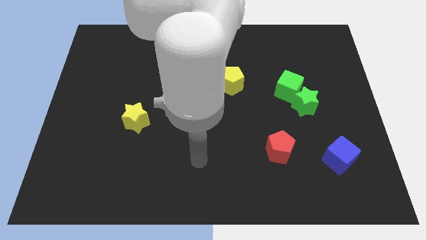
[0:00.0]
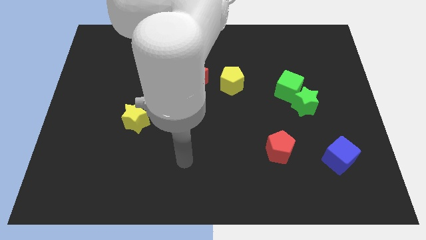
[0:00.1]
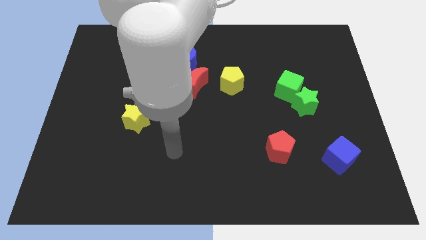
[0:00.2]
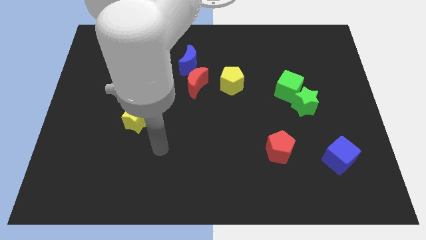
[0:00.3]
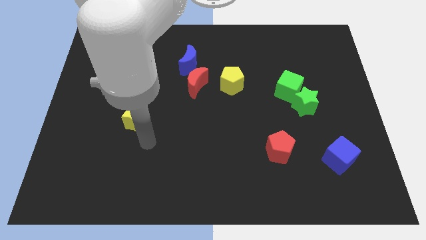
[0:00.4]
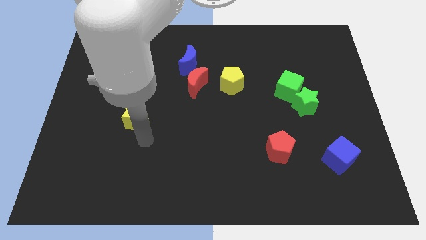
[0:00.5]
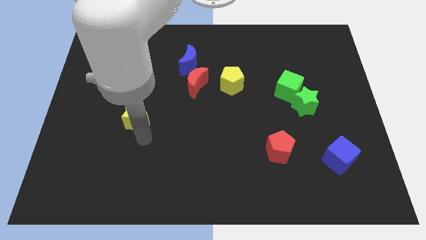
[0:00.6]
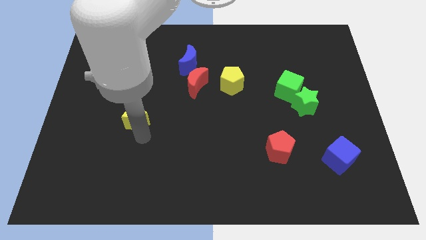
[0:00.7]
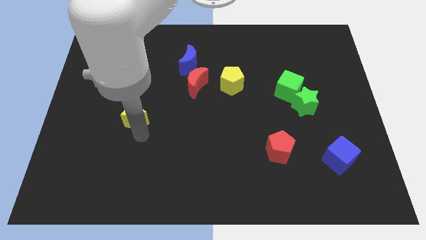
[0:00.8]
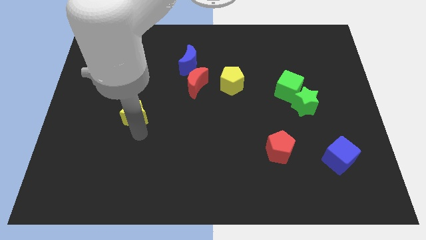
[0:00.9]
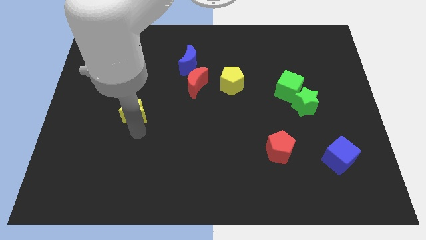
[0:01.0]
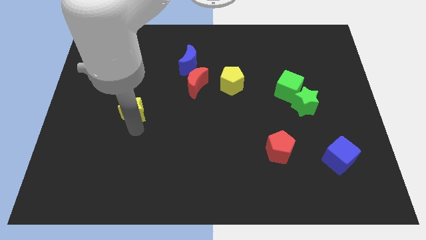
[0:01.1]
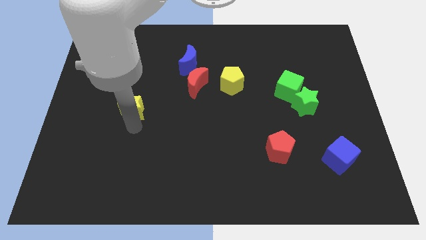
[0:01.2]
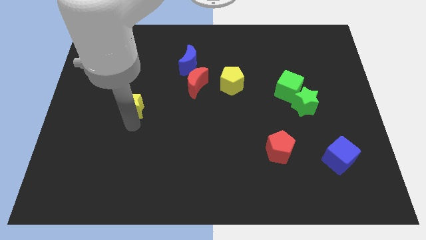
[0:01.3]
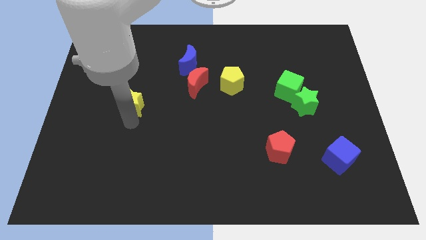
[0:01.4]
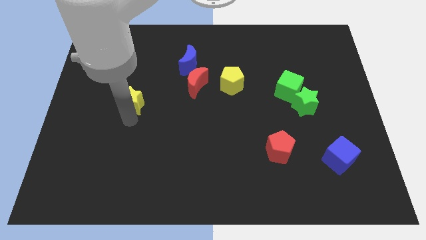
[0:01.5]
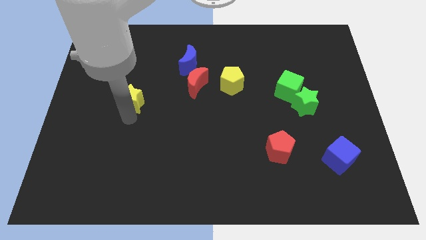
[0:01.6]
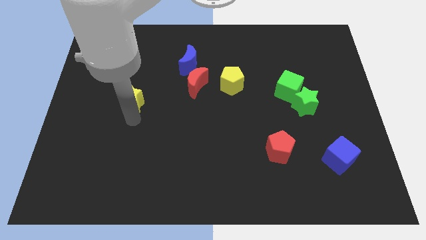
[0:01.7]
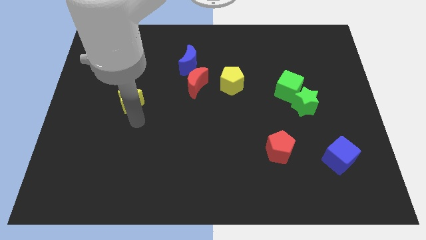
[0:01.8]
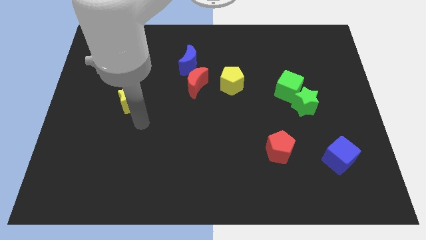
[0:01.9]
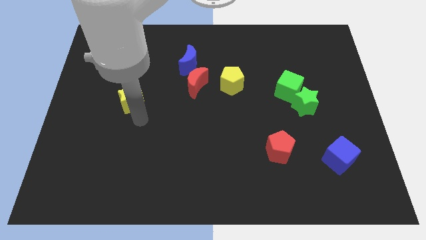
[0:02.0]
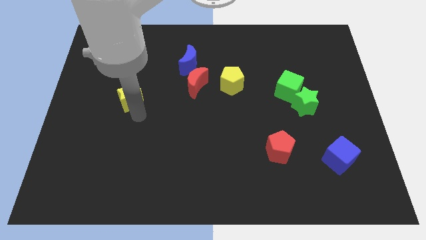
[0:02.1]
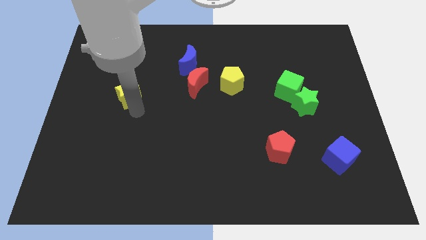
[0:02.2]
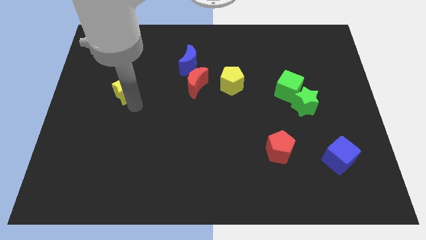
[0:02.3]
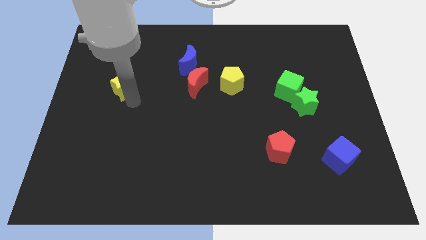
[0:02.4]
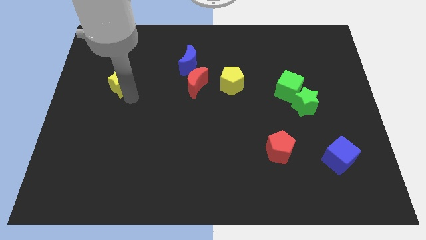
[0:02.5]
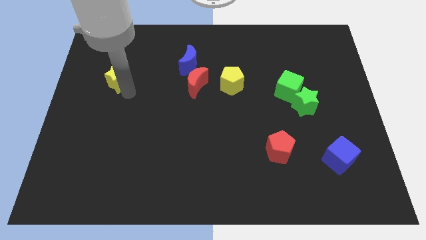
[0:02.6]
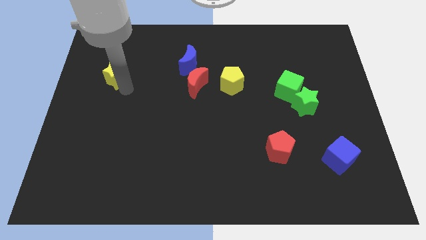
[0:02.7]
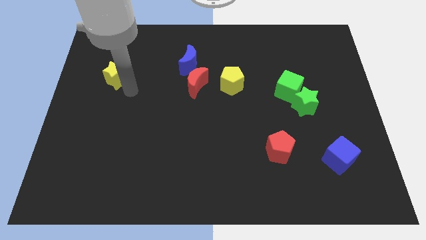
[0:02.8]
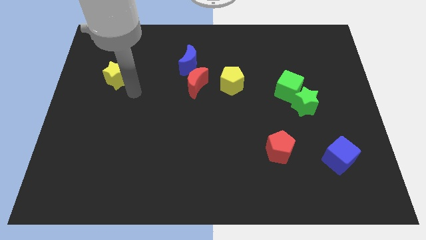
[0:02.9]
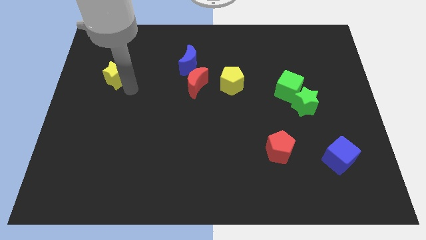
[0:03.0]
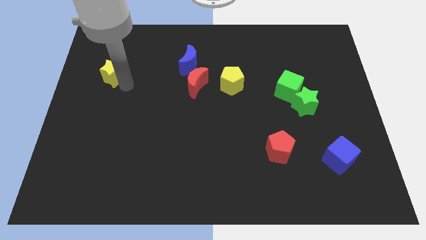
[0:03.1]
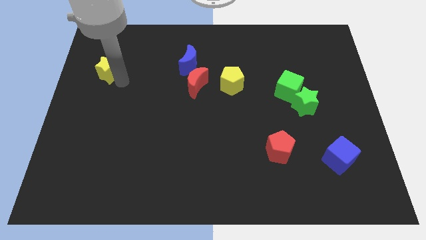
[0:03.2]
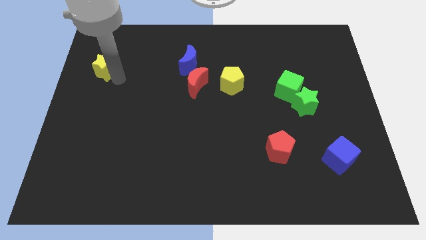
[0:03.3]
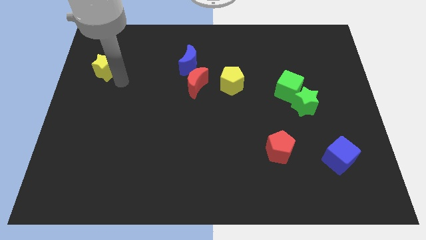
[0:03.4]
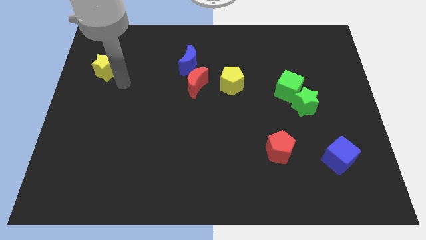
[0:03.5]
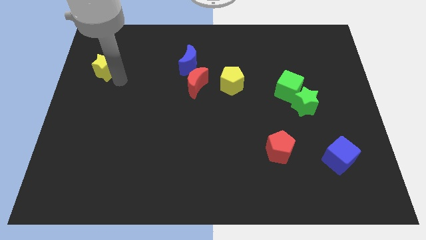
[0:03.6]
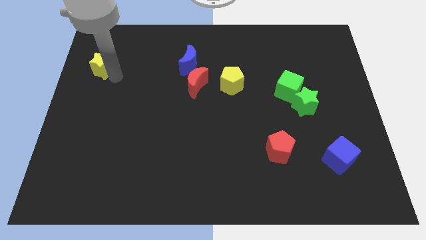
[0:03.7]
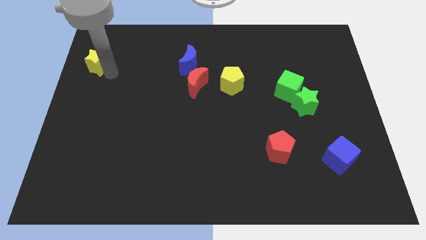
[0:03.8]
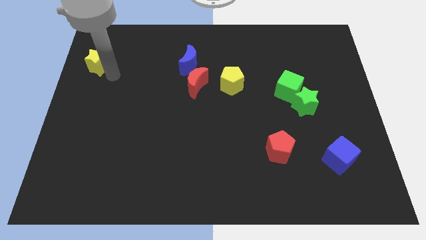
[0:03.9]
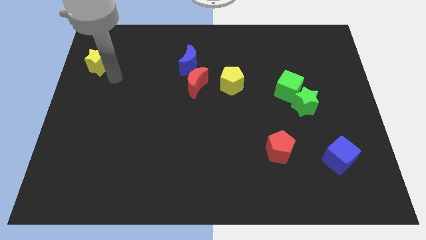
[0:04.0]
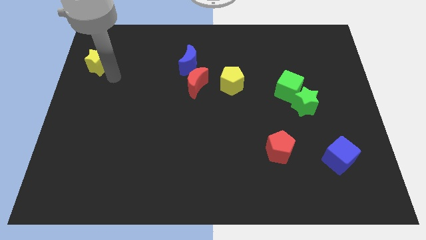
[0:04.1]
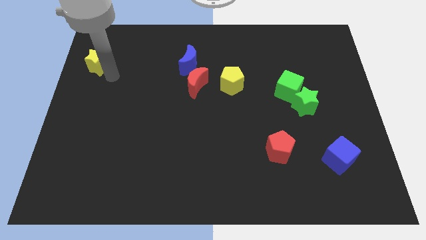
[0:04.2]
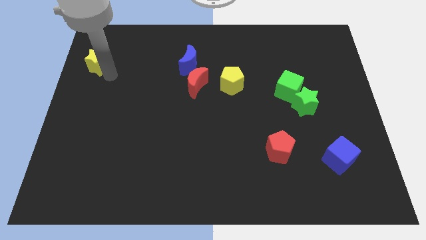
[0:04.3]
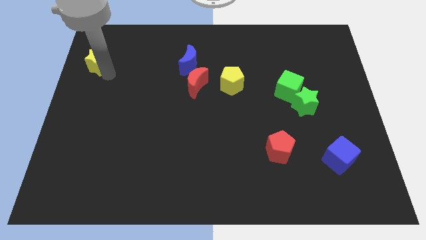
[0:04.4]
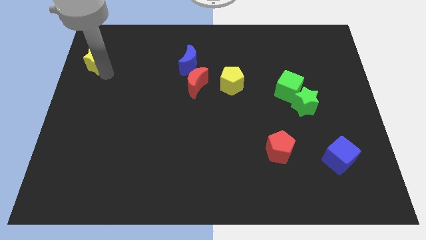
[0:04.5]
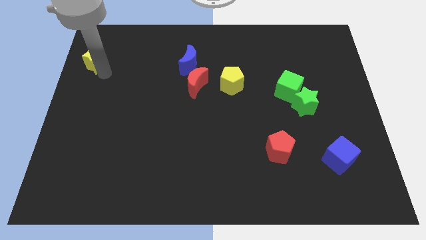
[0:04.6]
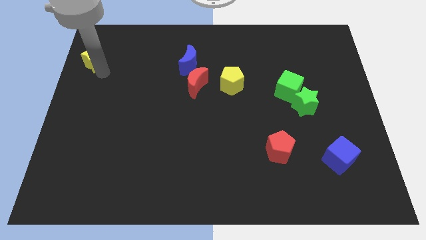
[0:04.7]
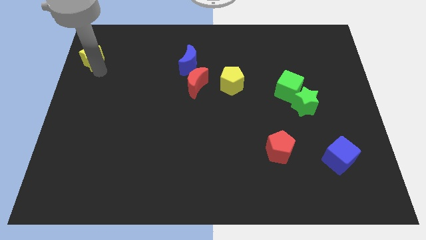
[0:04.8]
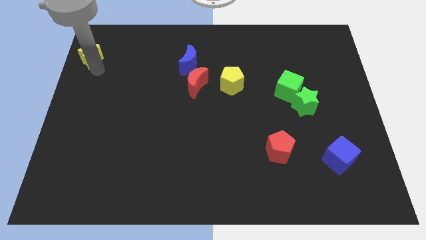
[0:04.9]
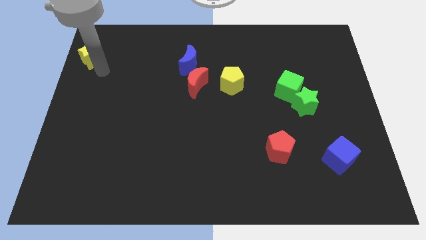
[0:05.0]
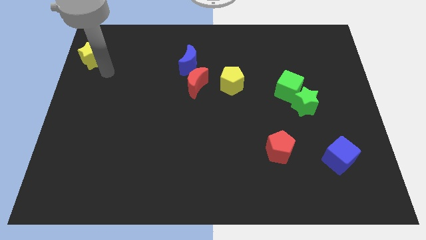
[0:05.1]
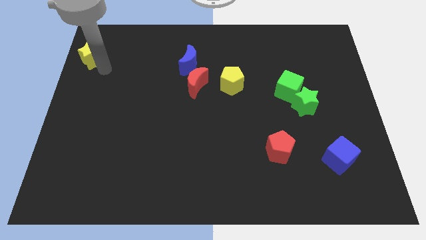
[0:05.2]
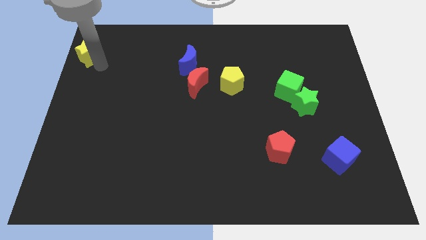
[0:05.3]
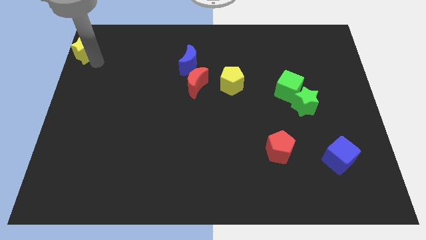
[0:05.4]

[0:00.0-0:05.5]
push the yellow star to the top left of the board
